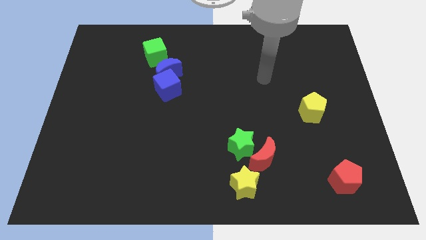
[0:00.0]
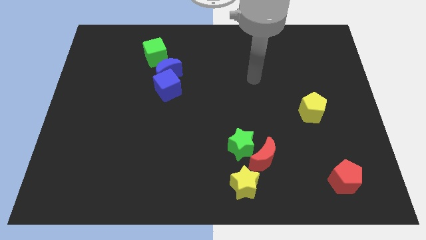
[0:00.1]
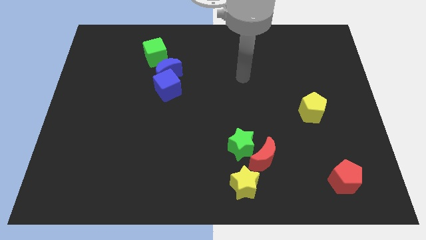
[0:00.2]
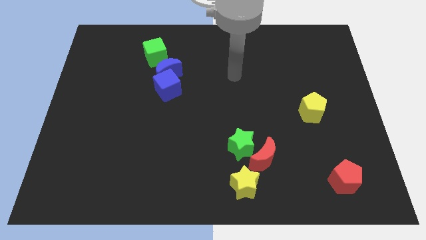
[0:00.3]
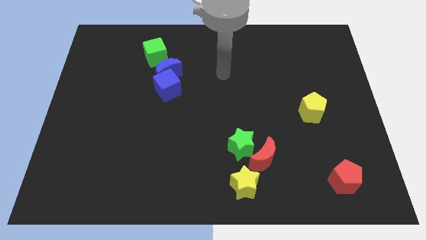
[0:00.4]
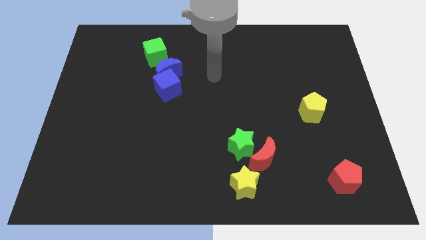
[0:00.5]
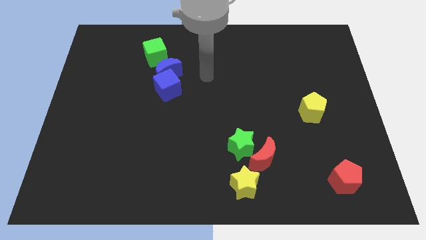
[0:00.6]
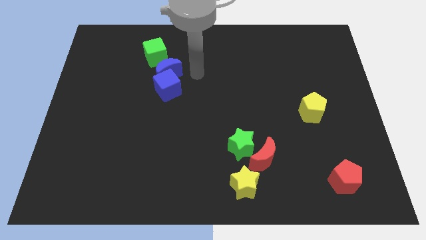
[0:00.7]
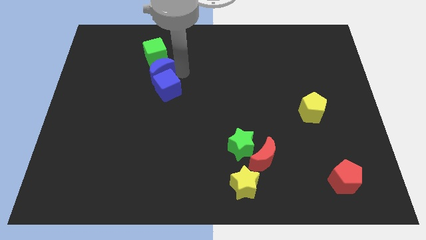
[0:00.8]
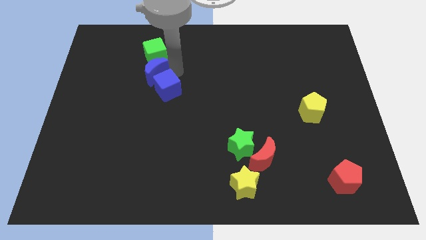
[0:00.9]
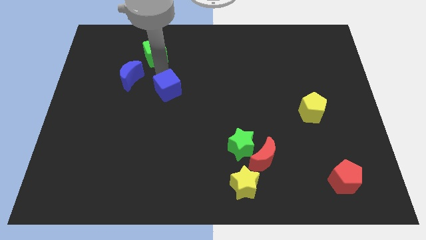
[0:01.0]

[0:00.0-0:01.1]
separate the blue cube from the blue moon

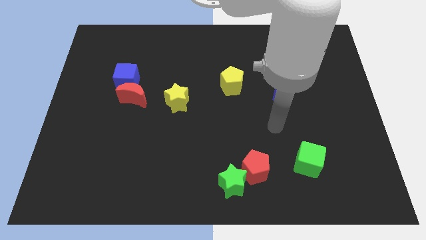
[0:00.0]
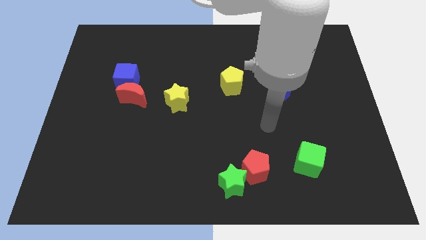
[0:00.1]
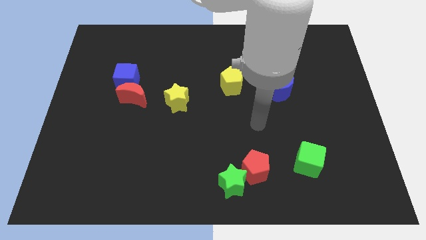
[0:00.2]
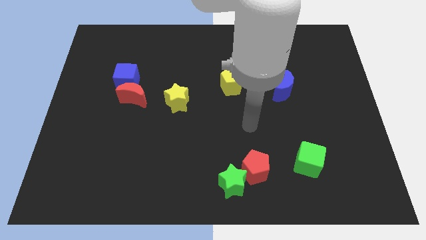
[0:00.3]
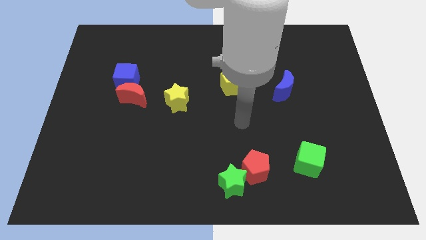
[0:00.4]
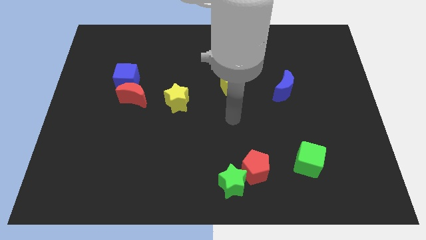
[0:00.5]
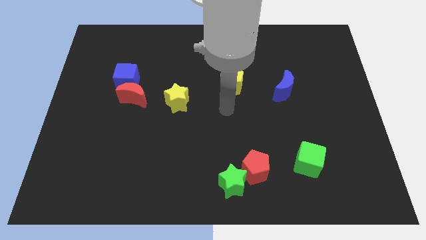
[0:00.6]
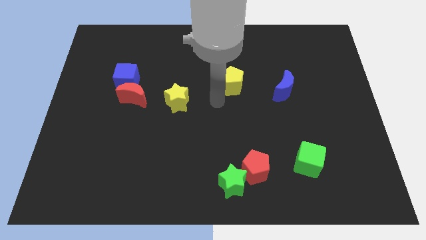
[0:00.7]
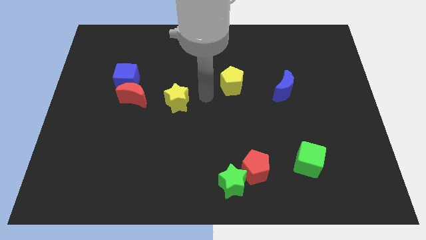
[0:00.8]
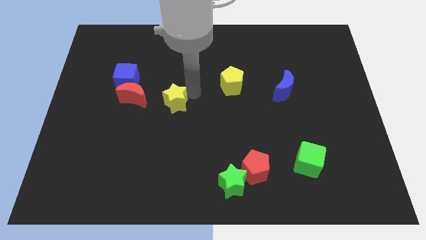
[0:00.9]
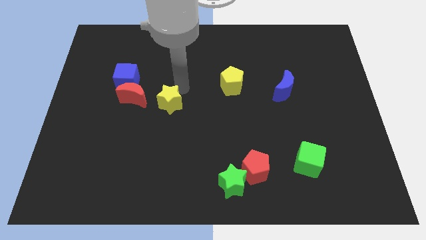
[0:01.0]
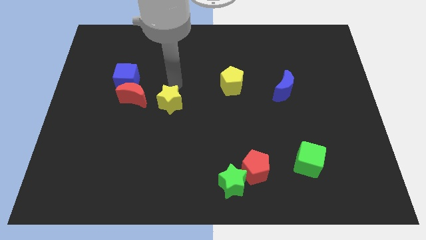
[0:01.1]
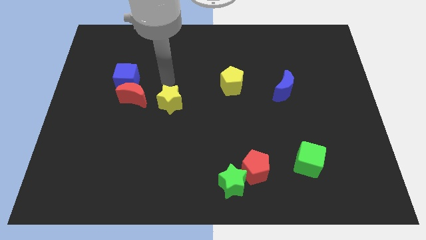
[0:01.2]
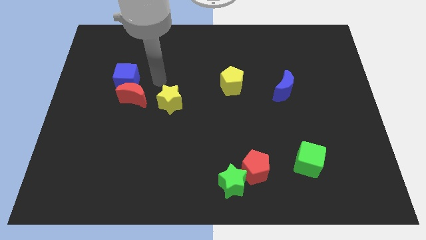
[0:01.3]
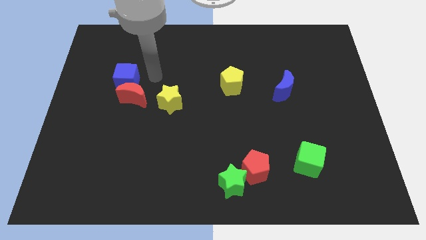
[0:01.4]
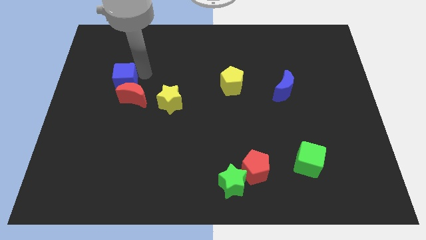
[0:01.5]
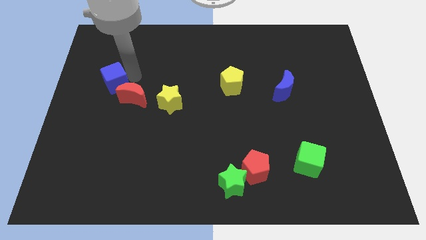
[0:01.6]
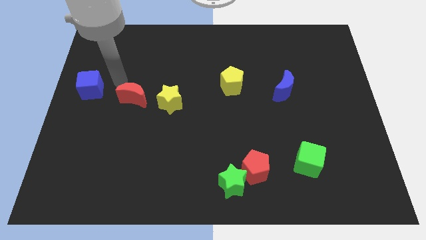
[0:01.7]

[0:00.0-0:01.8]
move the red moon away from the blue cube

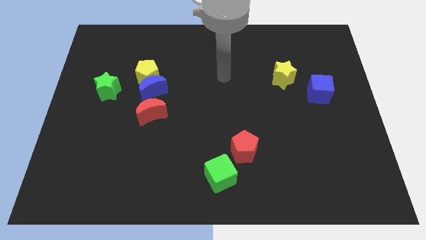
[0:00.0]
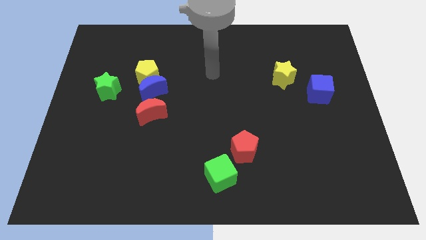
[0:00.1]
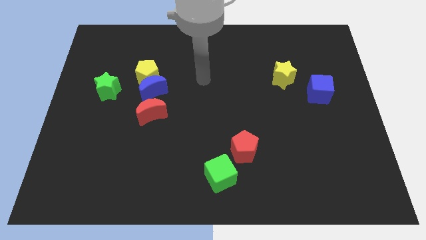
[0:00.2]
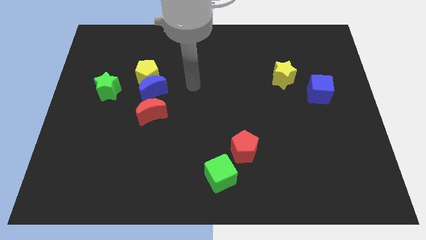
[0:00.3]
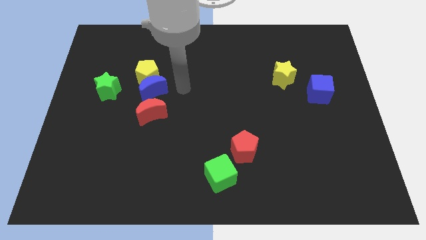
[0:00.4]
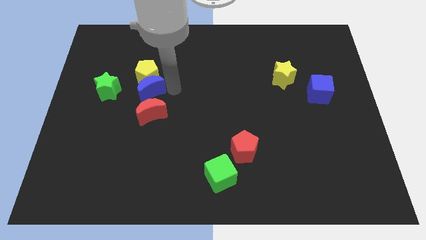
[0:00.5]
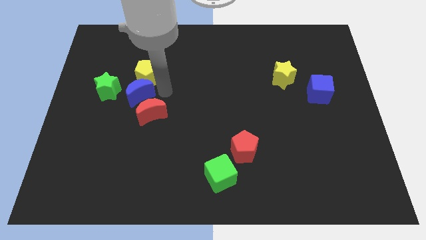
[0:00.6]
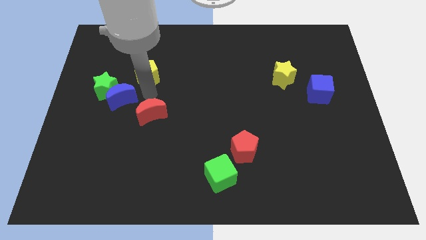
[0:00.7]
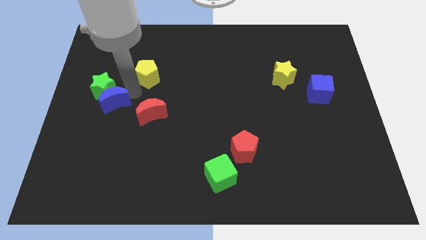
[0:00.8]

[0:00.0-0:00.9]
pull the yellow pentagon apart from the blue moon

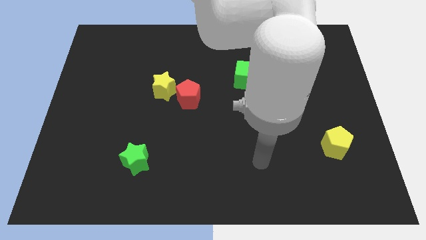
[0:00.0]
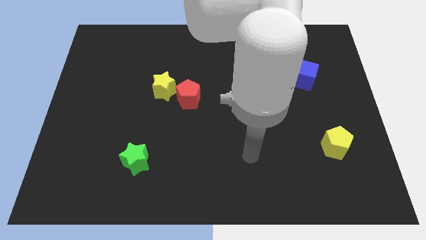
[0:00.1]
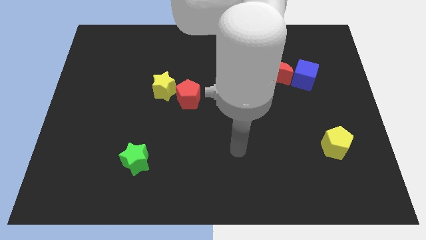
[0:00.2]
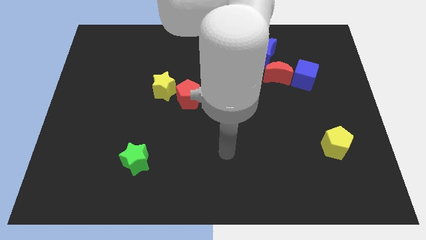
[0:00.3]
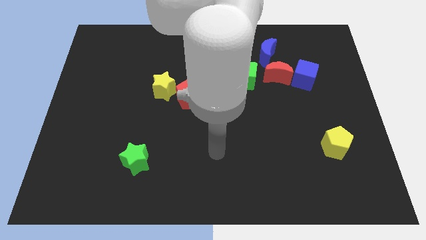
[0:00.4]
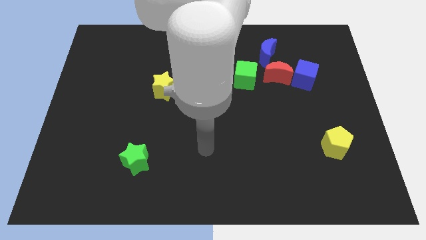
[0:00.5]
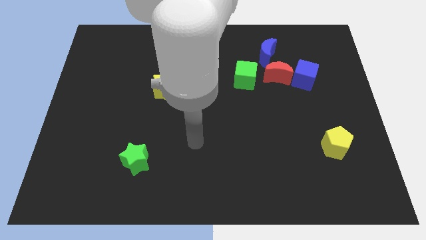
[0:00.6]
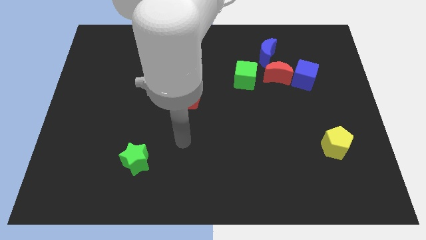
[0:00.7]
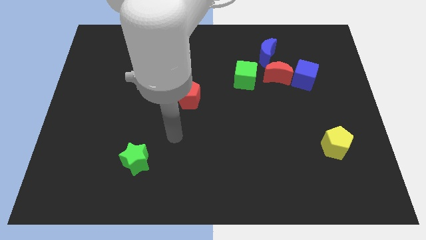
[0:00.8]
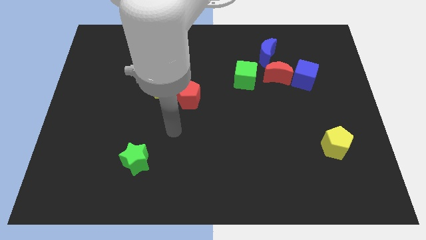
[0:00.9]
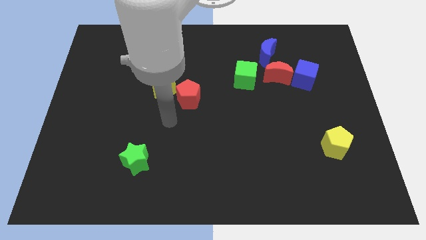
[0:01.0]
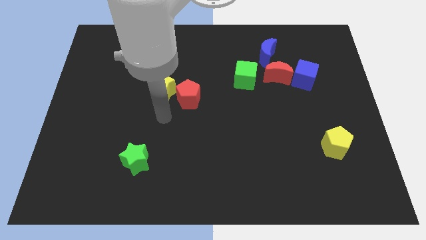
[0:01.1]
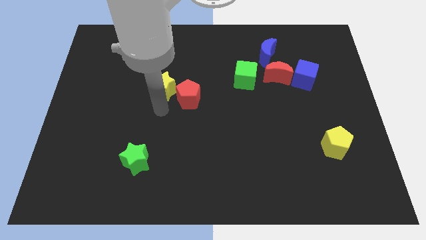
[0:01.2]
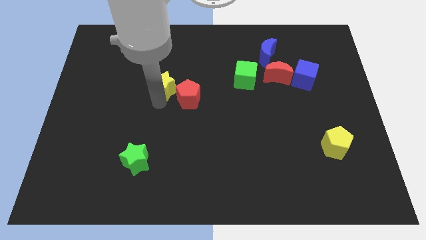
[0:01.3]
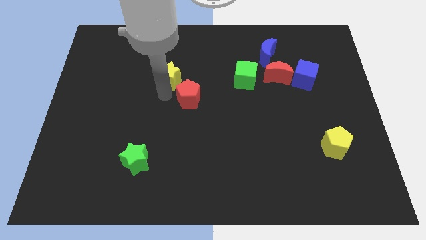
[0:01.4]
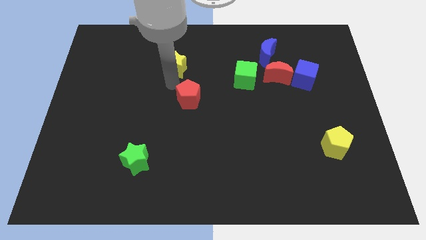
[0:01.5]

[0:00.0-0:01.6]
move the red pentagon away from the yellow star

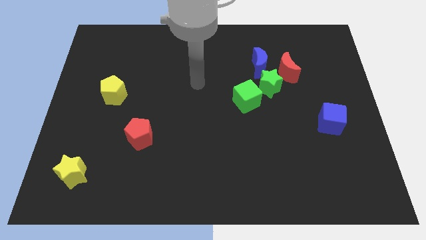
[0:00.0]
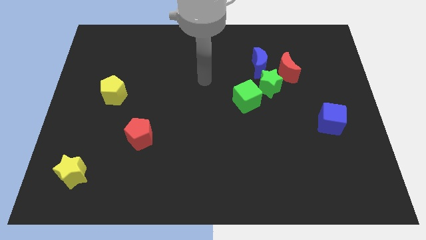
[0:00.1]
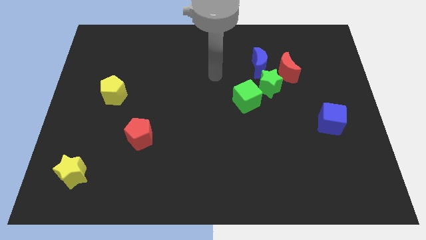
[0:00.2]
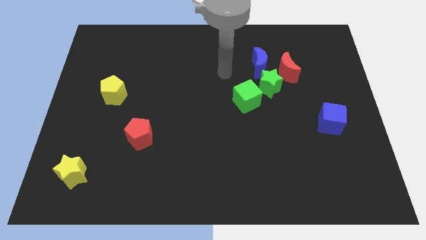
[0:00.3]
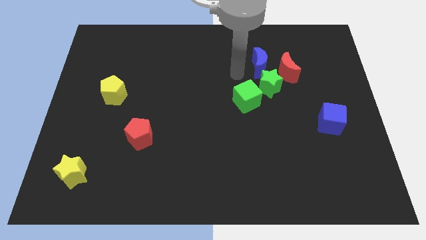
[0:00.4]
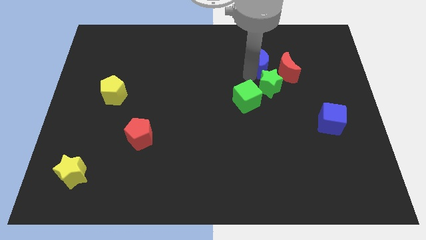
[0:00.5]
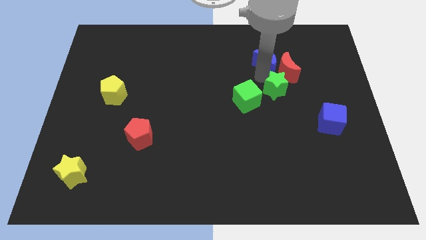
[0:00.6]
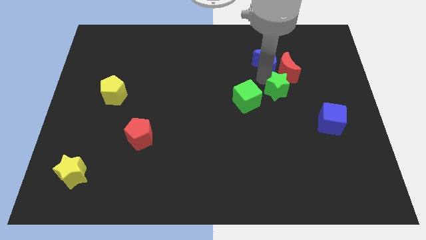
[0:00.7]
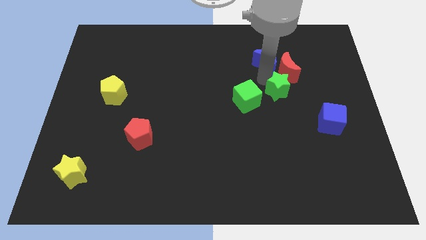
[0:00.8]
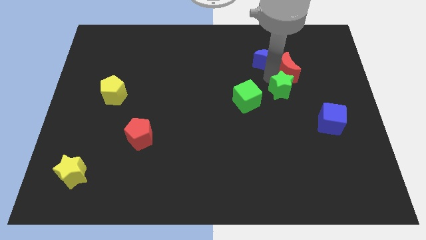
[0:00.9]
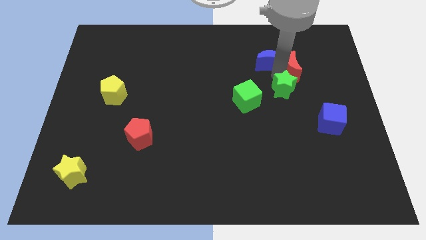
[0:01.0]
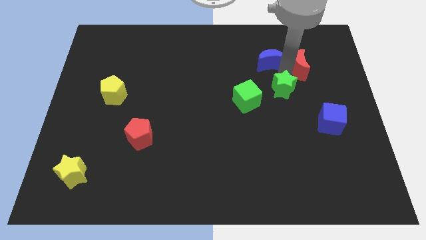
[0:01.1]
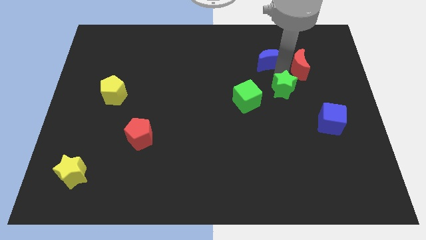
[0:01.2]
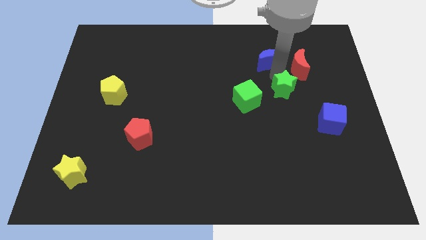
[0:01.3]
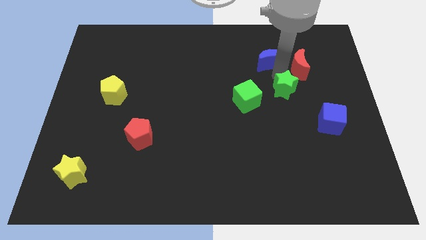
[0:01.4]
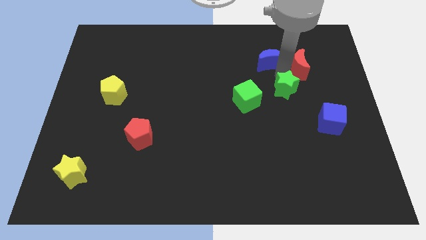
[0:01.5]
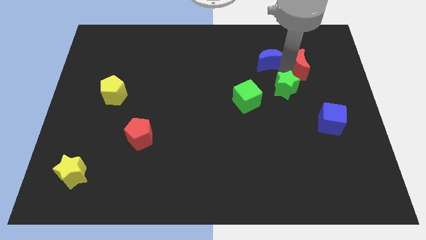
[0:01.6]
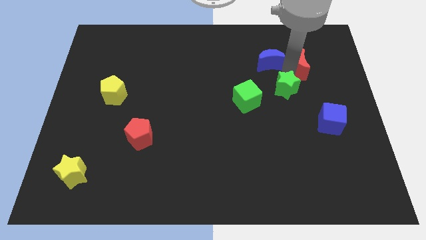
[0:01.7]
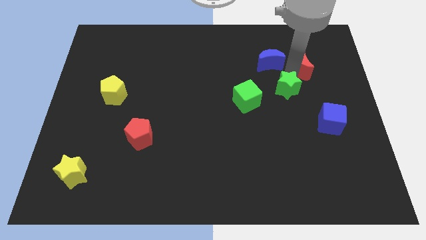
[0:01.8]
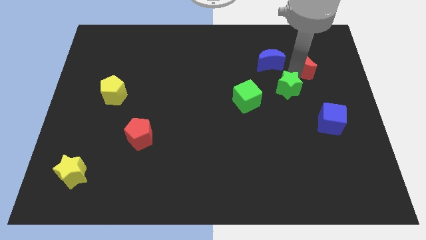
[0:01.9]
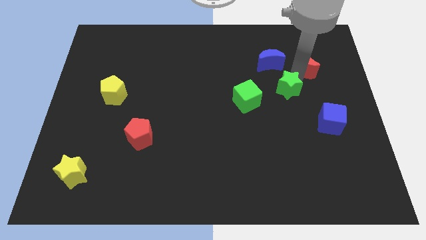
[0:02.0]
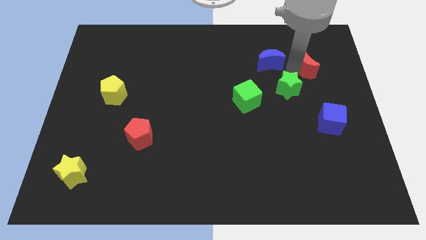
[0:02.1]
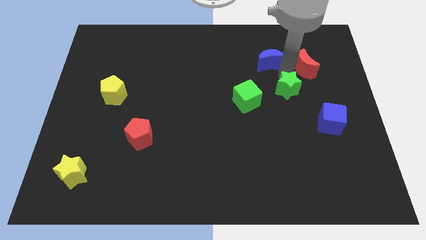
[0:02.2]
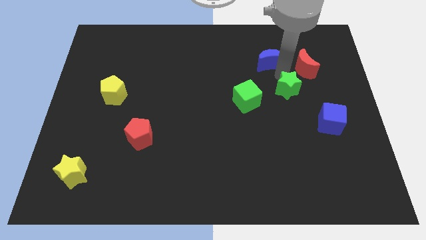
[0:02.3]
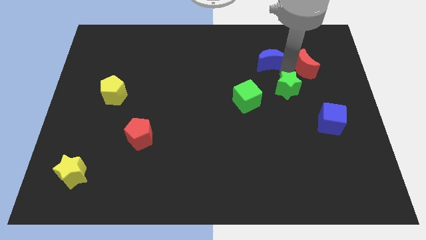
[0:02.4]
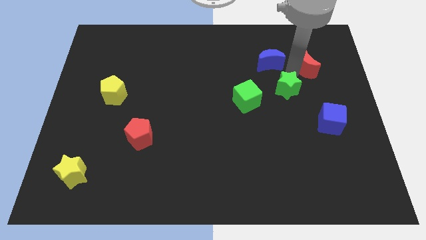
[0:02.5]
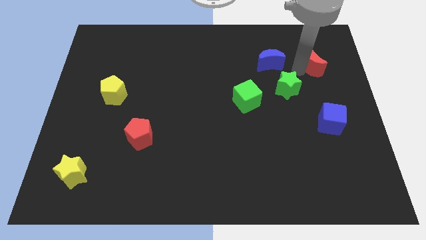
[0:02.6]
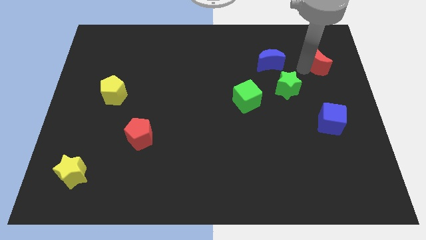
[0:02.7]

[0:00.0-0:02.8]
move the red moon away from the green star and blue moon

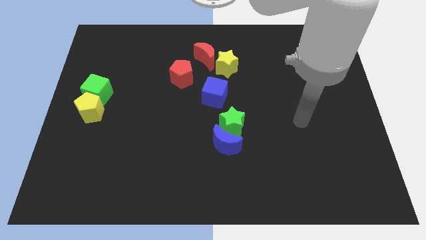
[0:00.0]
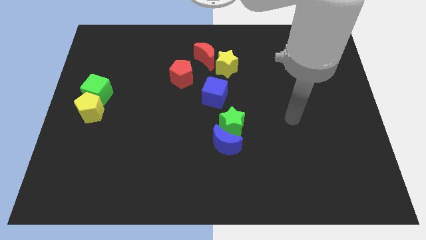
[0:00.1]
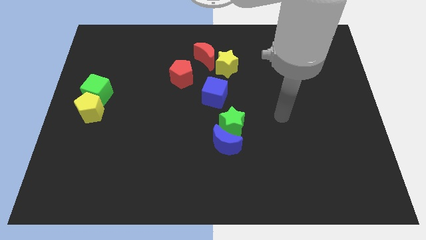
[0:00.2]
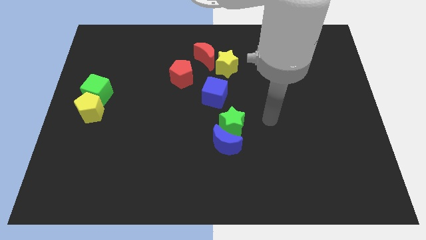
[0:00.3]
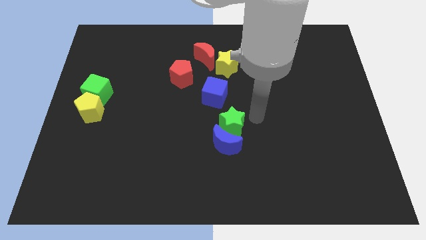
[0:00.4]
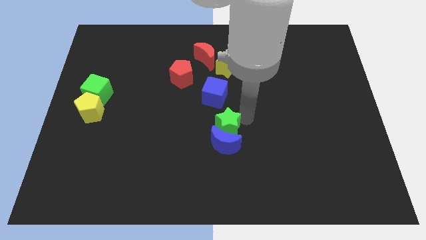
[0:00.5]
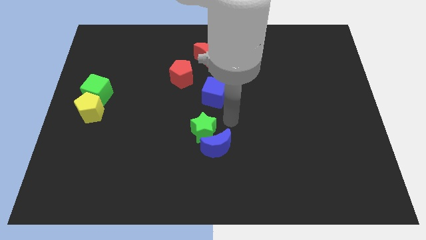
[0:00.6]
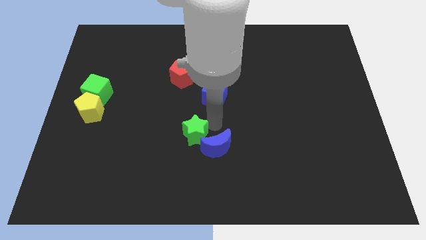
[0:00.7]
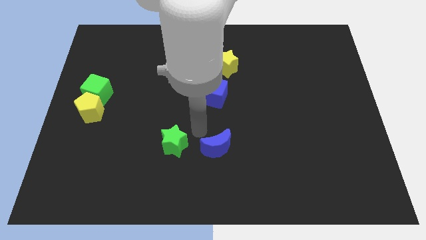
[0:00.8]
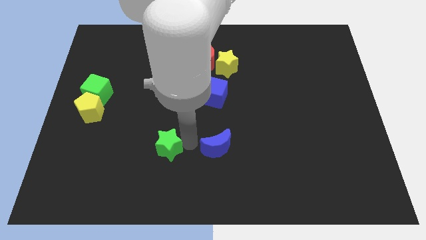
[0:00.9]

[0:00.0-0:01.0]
pull the blue moon apart from the green star

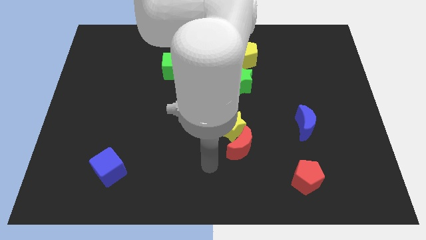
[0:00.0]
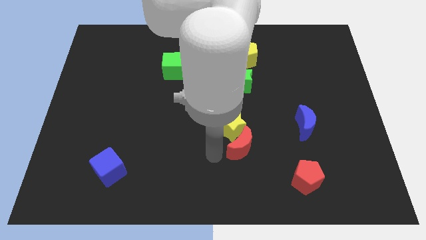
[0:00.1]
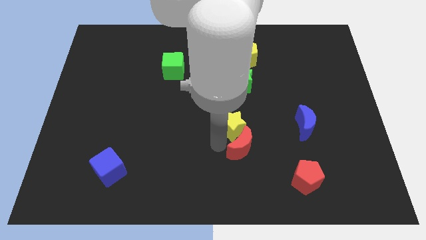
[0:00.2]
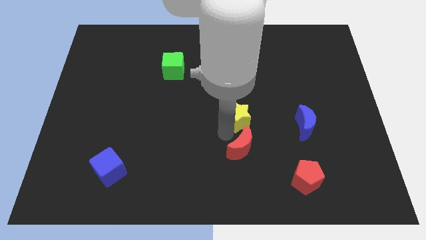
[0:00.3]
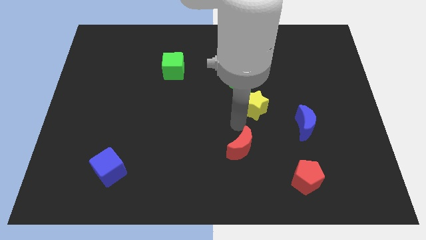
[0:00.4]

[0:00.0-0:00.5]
move the red moon away from the yellow star
